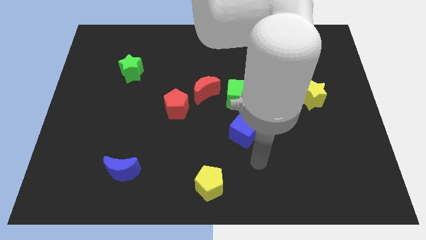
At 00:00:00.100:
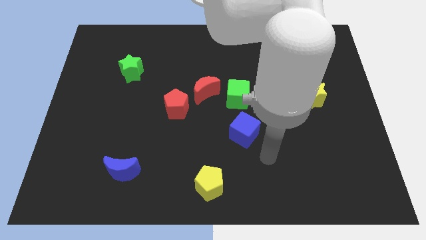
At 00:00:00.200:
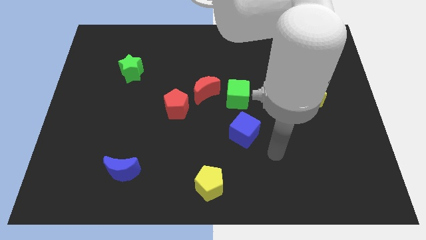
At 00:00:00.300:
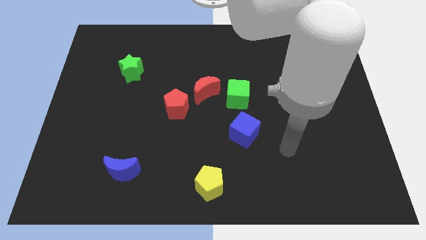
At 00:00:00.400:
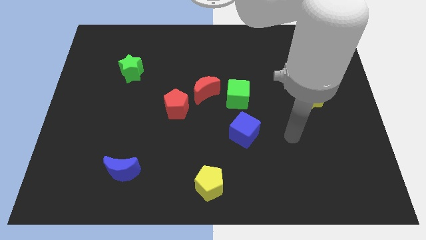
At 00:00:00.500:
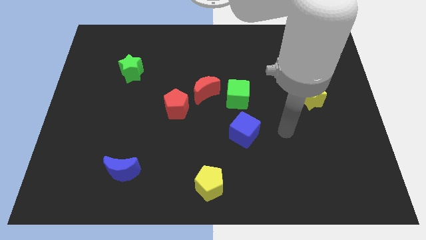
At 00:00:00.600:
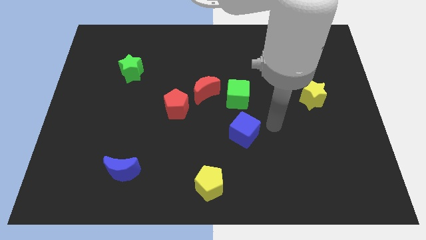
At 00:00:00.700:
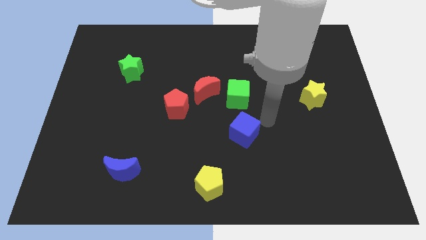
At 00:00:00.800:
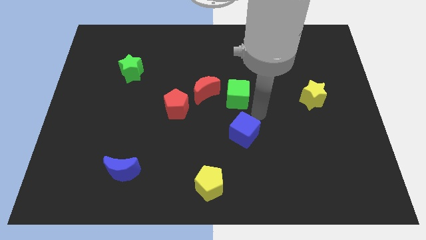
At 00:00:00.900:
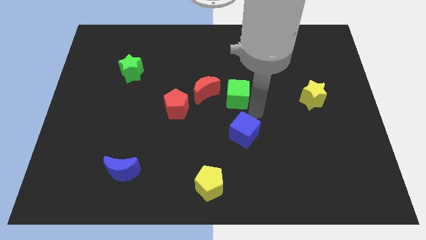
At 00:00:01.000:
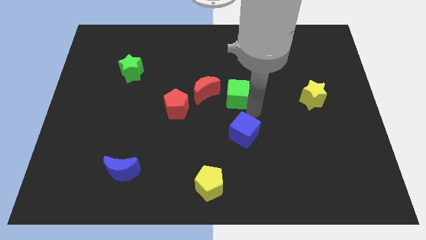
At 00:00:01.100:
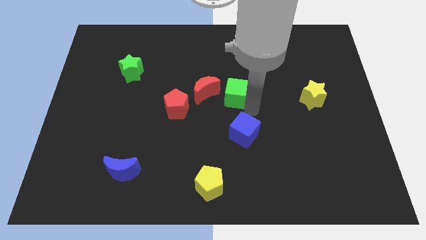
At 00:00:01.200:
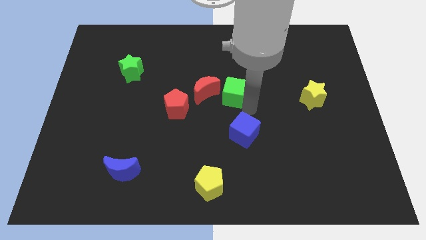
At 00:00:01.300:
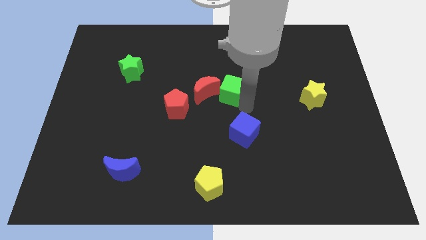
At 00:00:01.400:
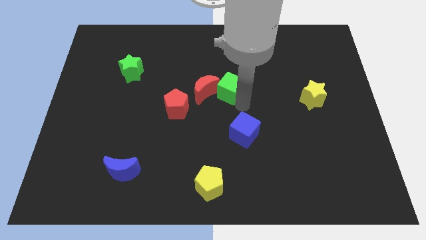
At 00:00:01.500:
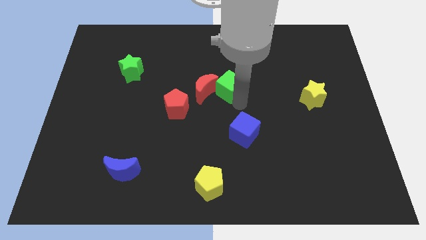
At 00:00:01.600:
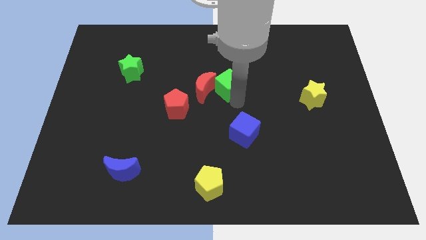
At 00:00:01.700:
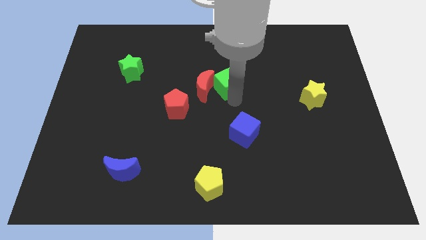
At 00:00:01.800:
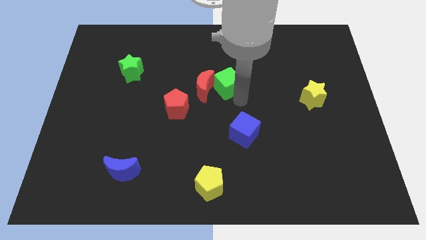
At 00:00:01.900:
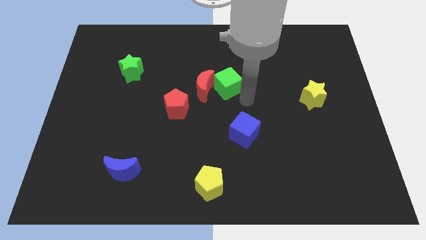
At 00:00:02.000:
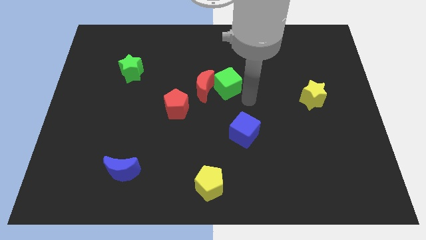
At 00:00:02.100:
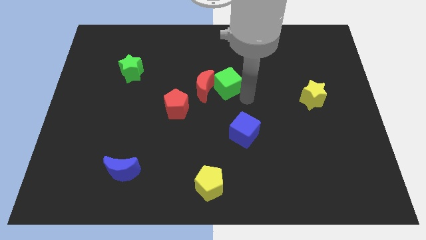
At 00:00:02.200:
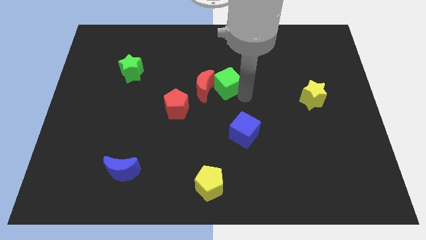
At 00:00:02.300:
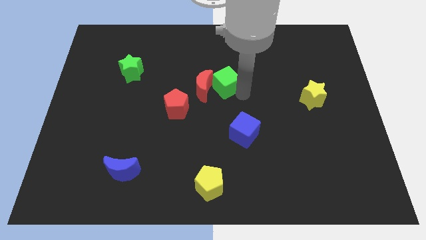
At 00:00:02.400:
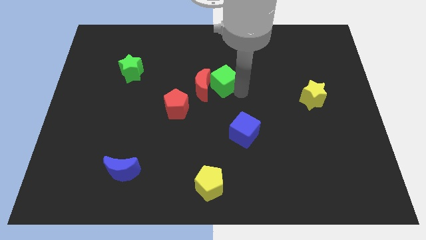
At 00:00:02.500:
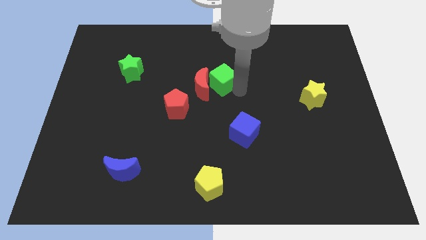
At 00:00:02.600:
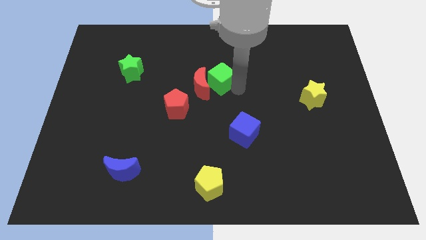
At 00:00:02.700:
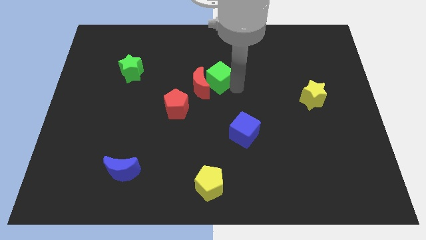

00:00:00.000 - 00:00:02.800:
slightly move the green cube up and to the left diagonally

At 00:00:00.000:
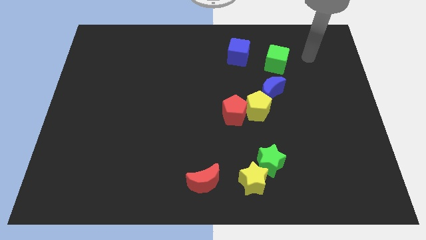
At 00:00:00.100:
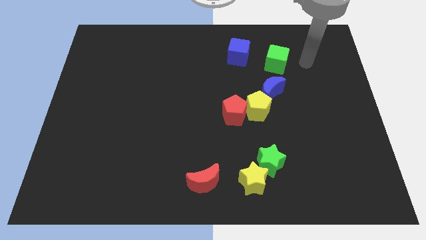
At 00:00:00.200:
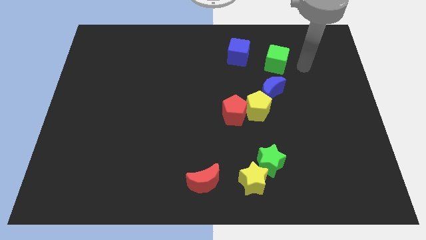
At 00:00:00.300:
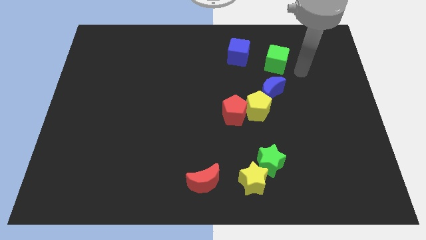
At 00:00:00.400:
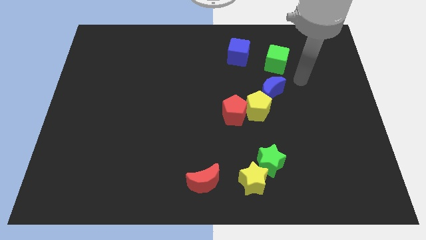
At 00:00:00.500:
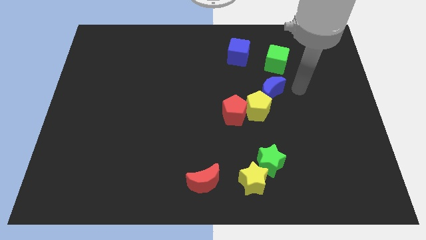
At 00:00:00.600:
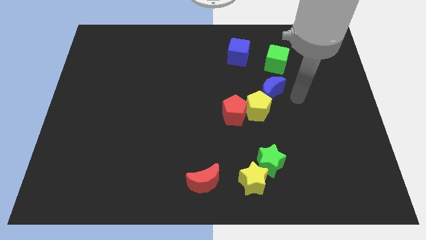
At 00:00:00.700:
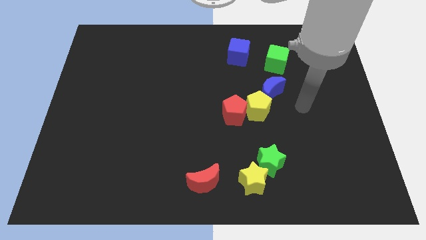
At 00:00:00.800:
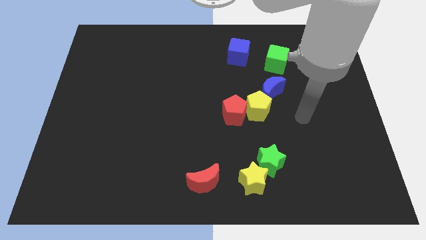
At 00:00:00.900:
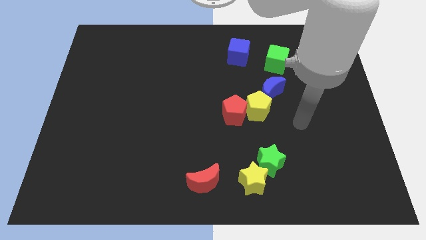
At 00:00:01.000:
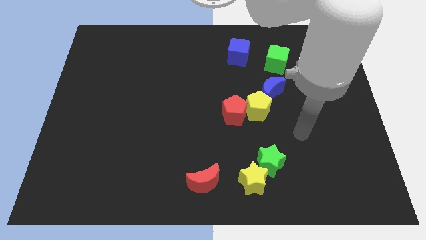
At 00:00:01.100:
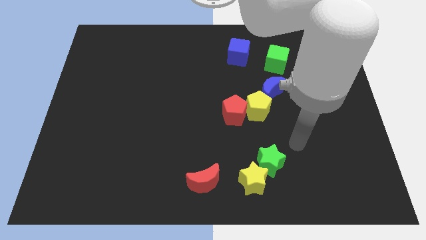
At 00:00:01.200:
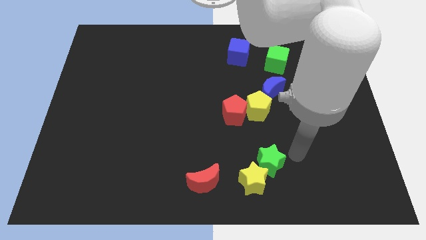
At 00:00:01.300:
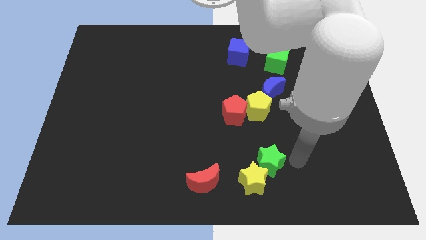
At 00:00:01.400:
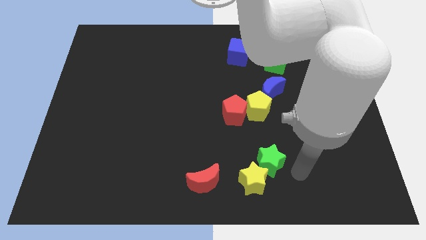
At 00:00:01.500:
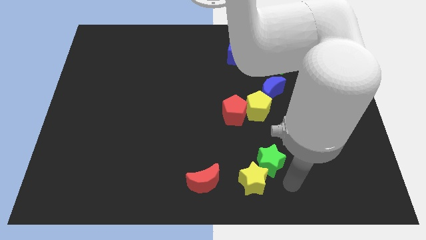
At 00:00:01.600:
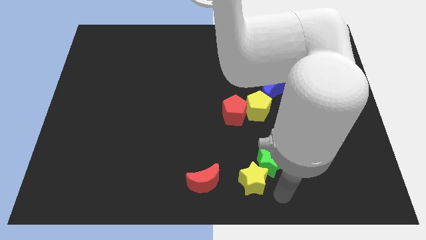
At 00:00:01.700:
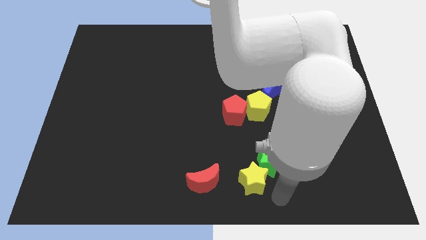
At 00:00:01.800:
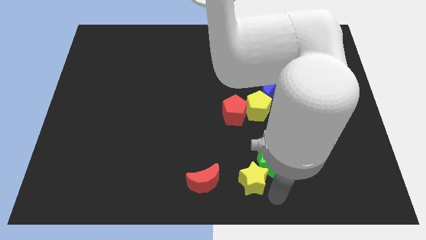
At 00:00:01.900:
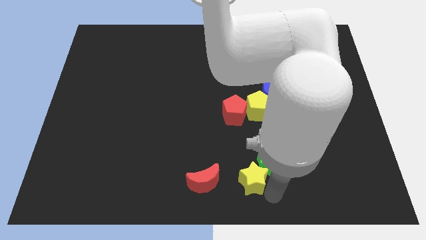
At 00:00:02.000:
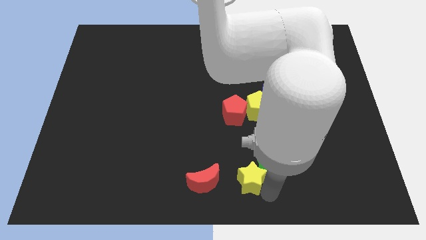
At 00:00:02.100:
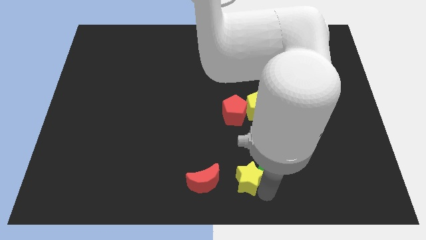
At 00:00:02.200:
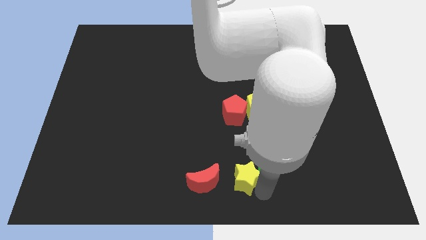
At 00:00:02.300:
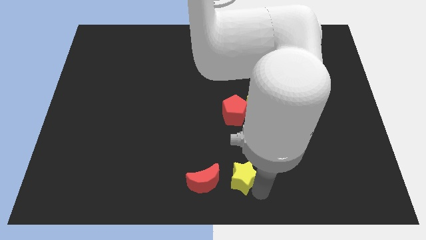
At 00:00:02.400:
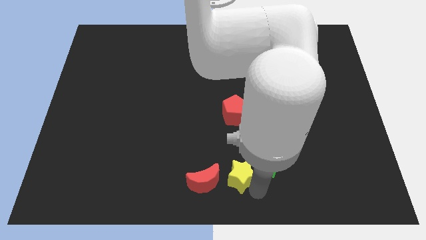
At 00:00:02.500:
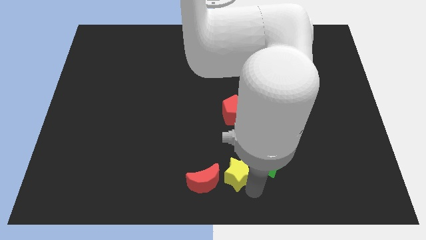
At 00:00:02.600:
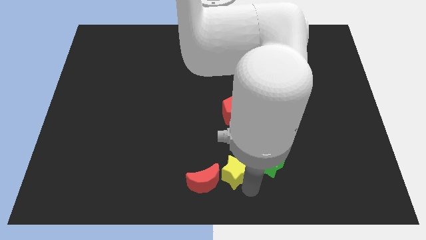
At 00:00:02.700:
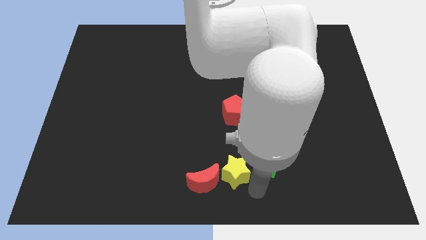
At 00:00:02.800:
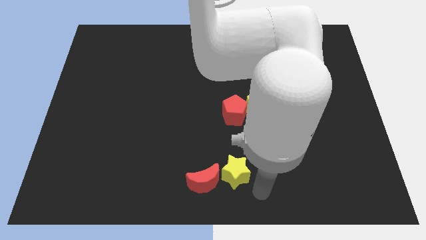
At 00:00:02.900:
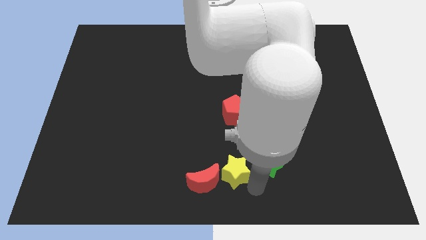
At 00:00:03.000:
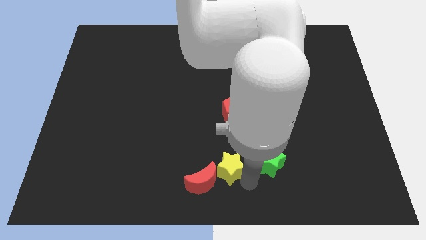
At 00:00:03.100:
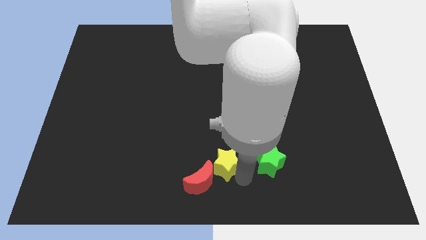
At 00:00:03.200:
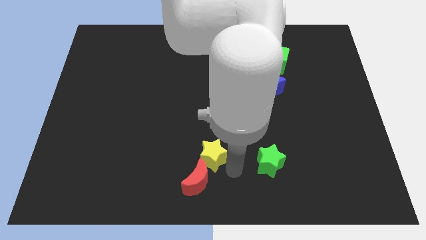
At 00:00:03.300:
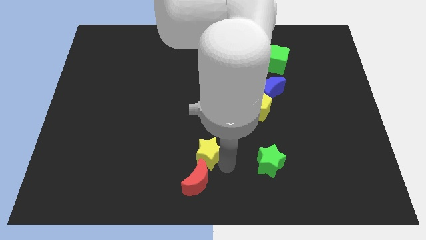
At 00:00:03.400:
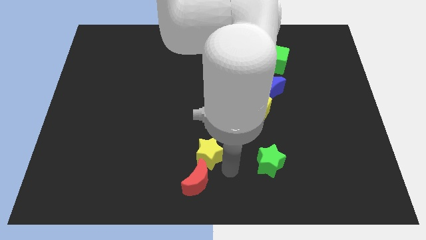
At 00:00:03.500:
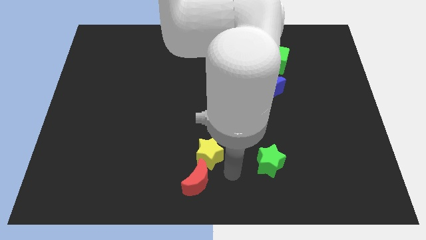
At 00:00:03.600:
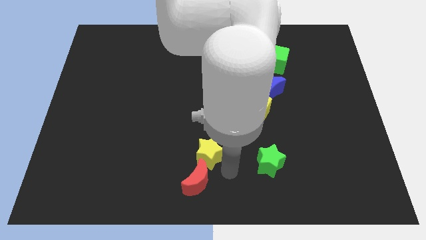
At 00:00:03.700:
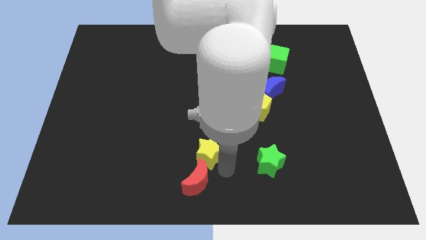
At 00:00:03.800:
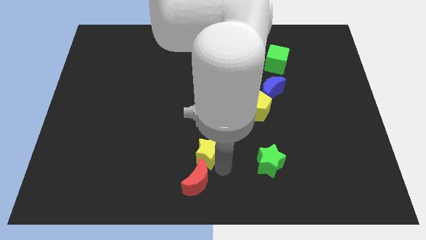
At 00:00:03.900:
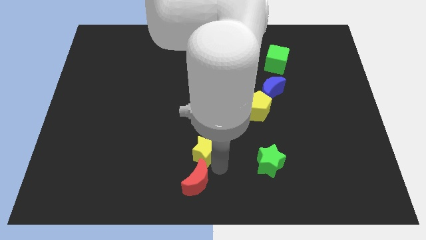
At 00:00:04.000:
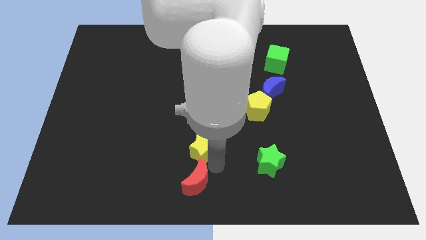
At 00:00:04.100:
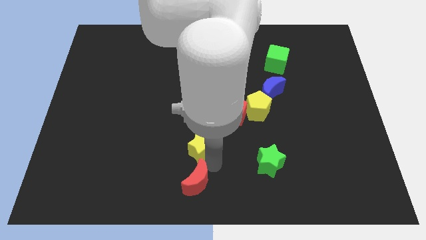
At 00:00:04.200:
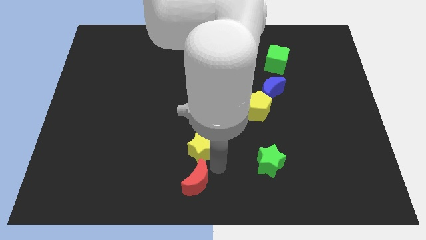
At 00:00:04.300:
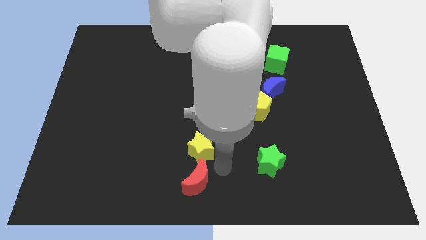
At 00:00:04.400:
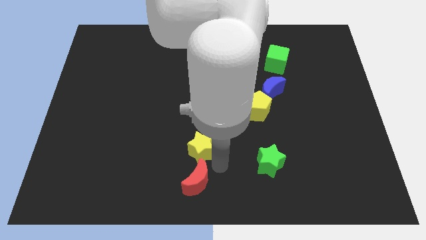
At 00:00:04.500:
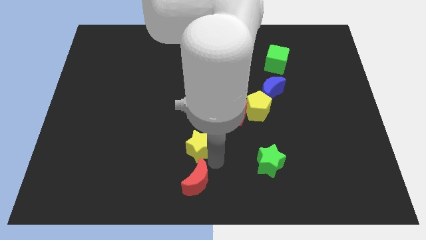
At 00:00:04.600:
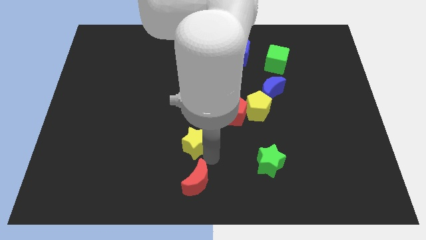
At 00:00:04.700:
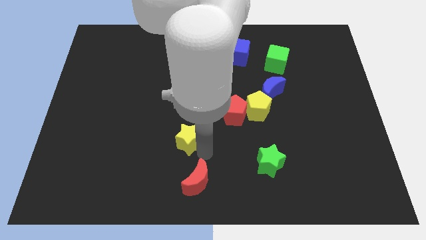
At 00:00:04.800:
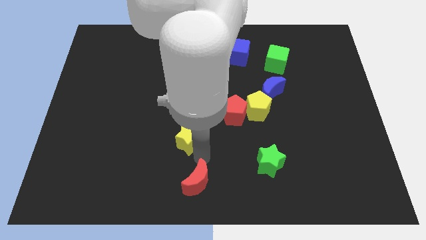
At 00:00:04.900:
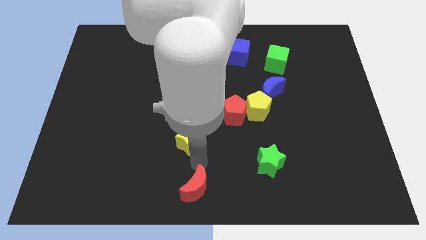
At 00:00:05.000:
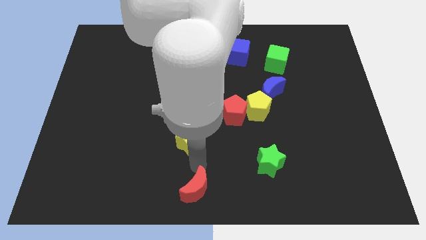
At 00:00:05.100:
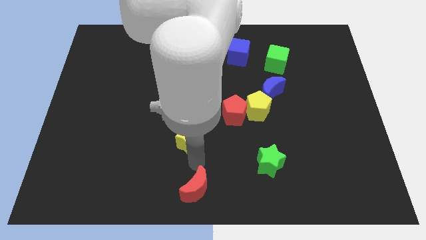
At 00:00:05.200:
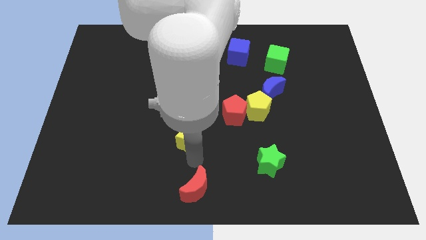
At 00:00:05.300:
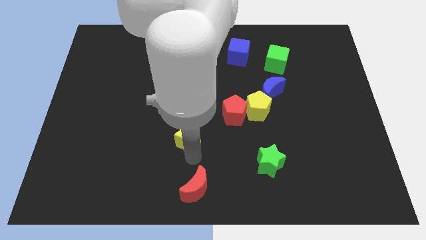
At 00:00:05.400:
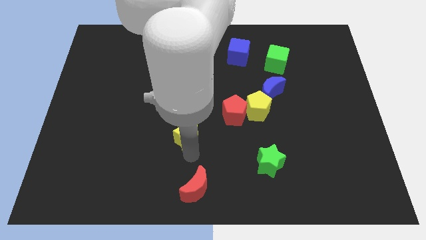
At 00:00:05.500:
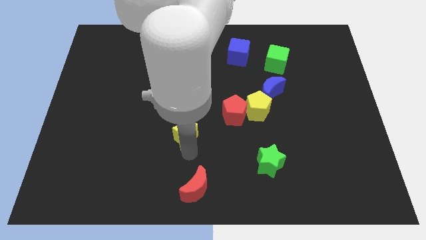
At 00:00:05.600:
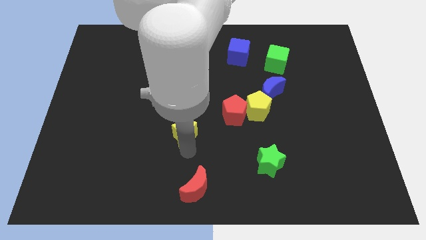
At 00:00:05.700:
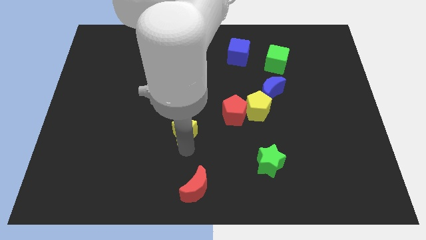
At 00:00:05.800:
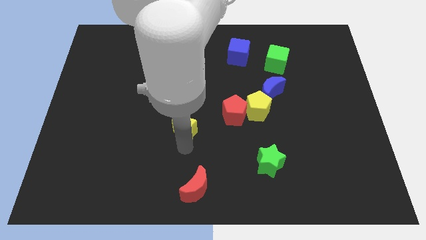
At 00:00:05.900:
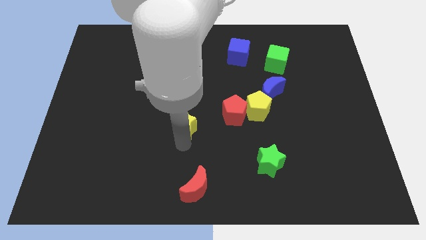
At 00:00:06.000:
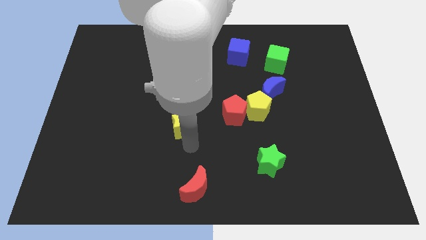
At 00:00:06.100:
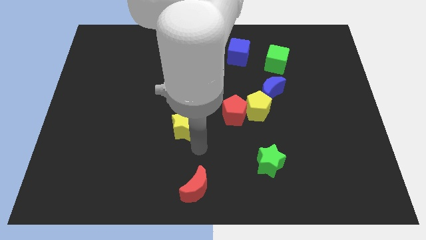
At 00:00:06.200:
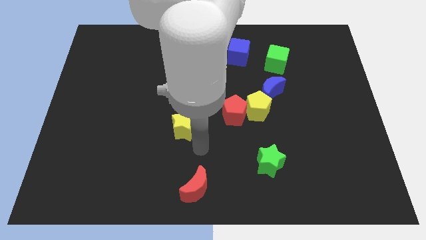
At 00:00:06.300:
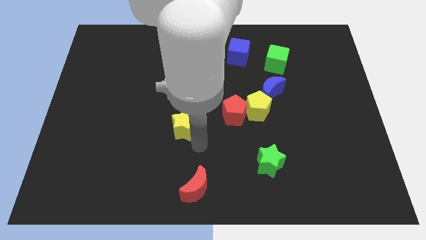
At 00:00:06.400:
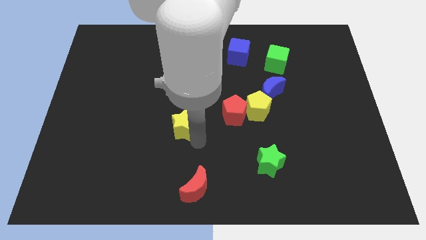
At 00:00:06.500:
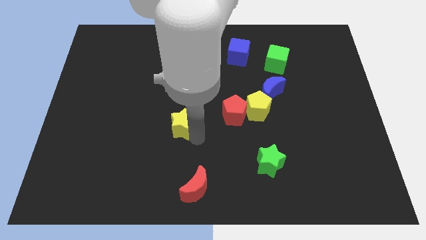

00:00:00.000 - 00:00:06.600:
push the yellow star diagonally up and left
